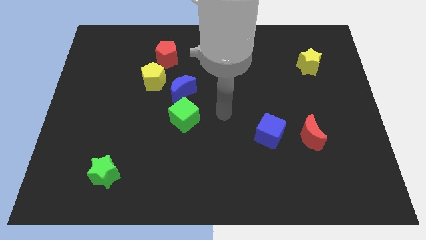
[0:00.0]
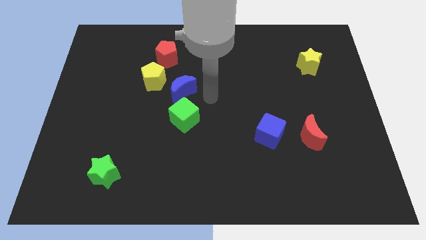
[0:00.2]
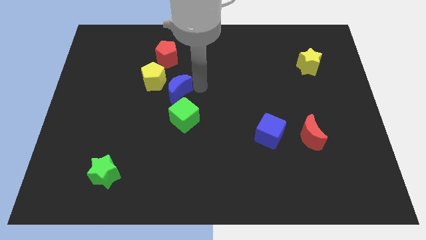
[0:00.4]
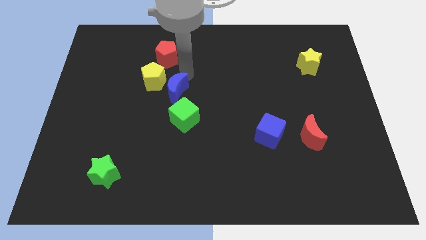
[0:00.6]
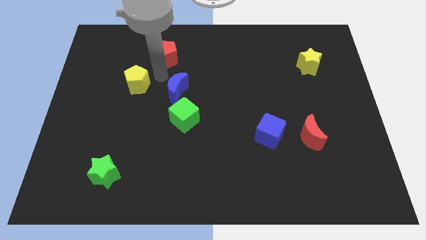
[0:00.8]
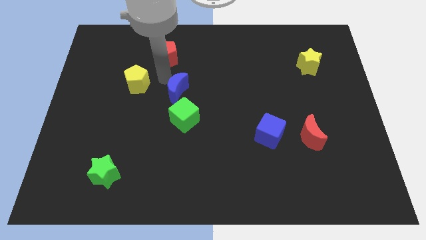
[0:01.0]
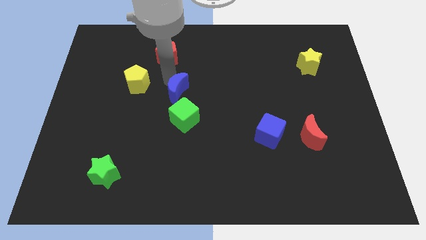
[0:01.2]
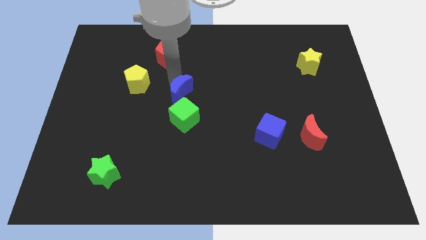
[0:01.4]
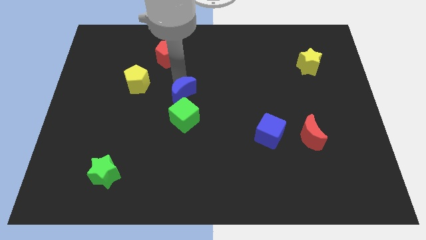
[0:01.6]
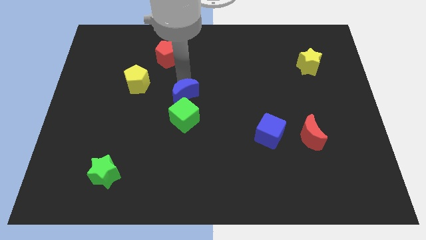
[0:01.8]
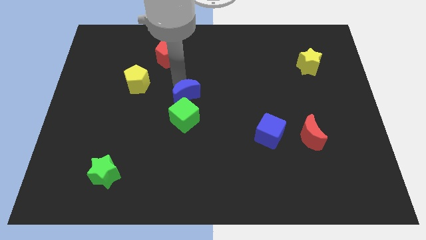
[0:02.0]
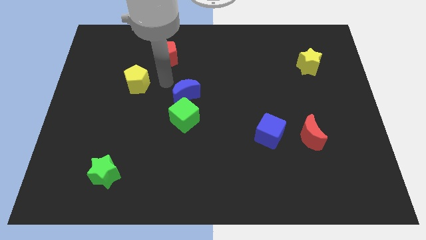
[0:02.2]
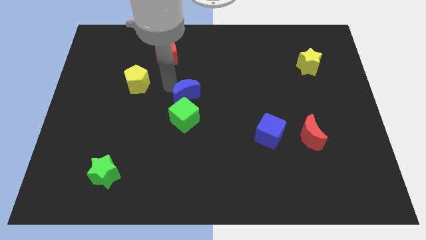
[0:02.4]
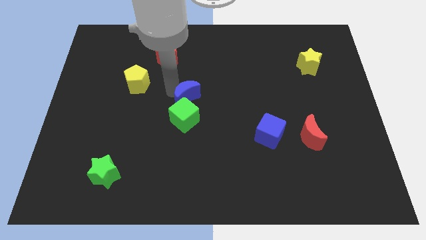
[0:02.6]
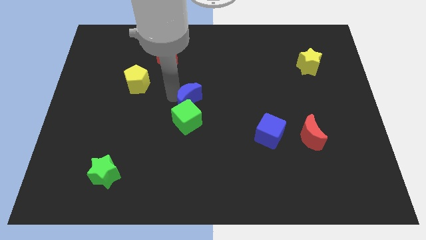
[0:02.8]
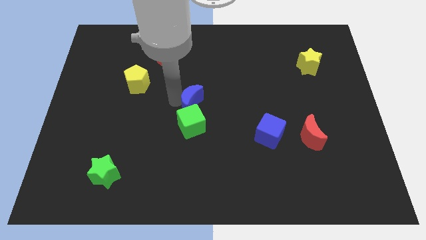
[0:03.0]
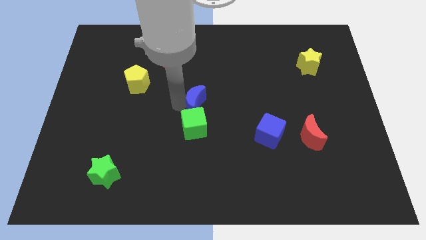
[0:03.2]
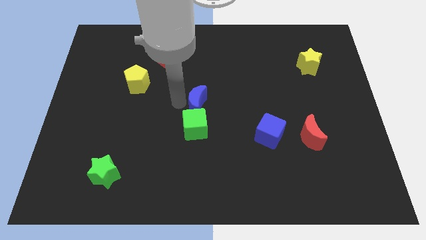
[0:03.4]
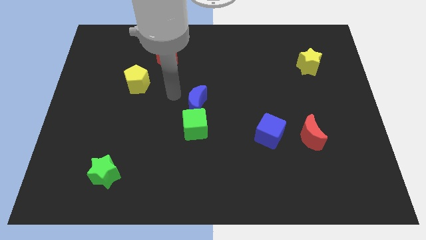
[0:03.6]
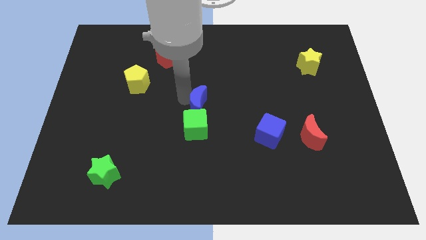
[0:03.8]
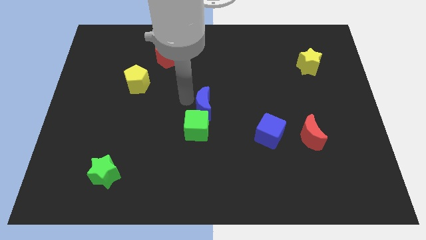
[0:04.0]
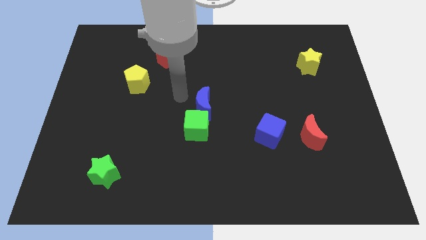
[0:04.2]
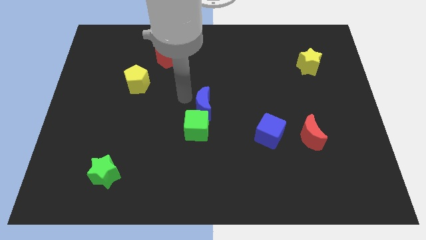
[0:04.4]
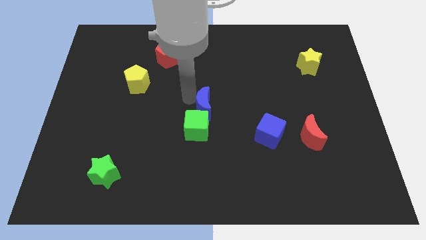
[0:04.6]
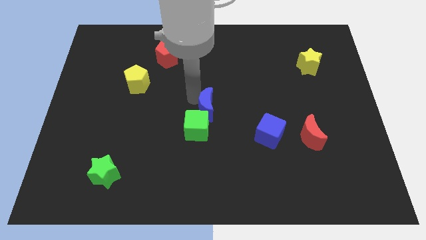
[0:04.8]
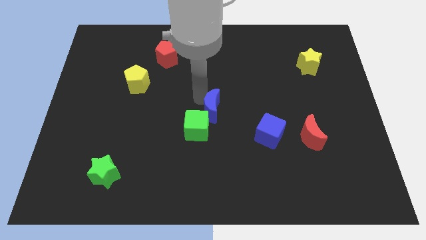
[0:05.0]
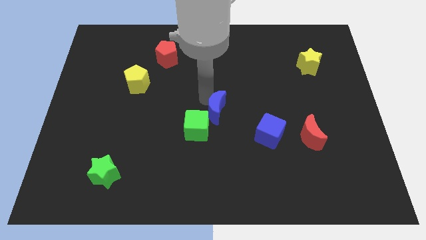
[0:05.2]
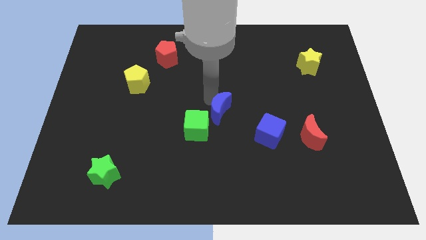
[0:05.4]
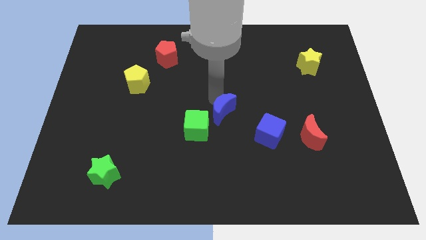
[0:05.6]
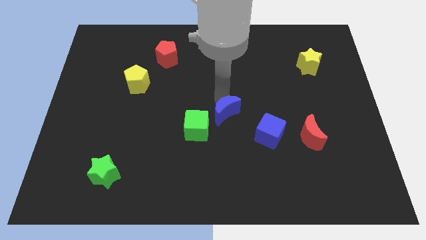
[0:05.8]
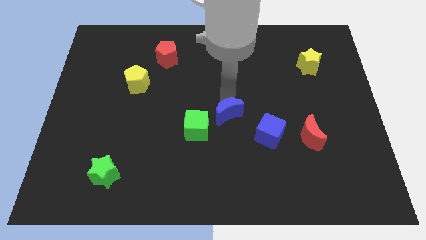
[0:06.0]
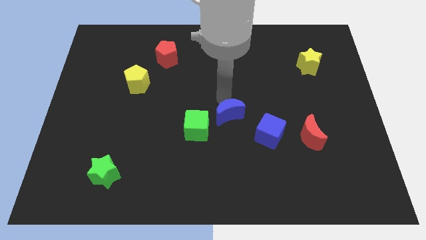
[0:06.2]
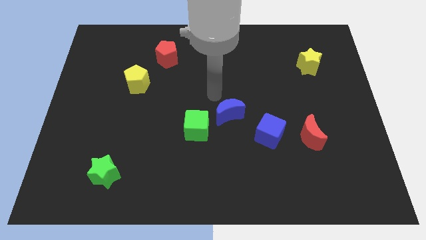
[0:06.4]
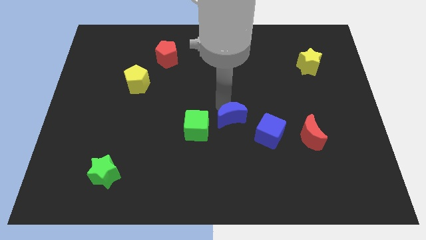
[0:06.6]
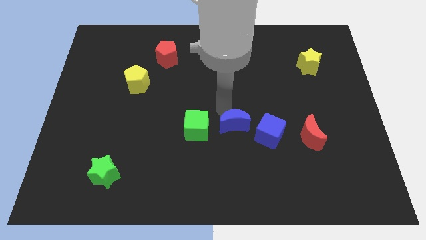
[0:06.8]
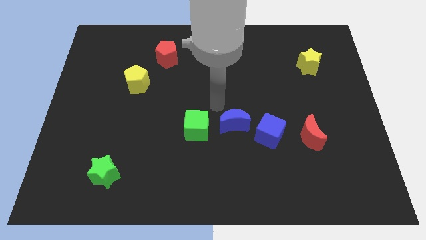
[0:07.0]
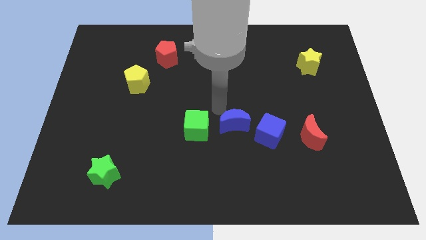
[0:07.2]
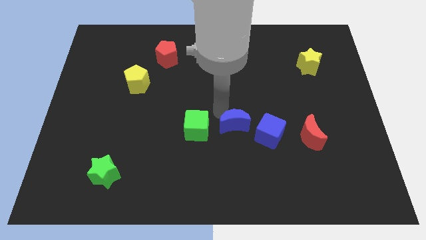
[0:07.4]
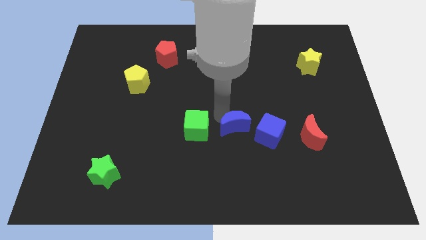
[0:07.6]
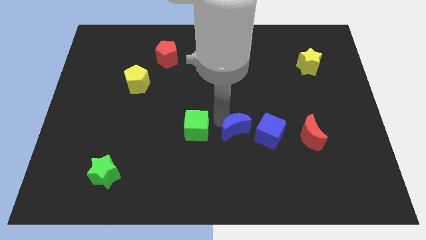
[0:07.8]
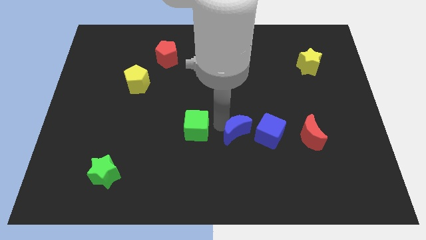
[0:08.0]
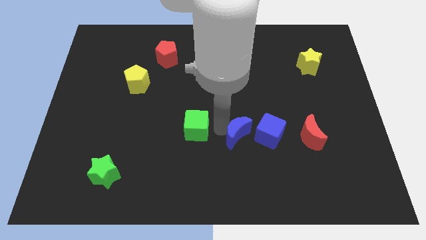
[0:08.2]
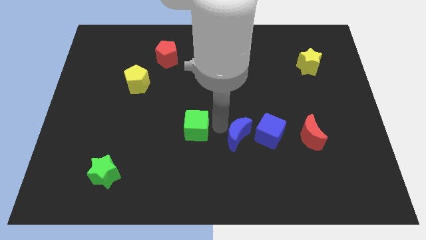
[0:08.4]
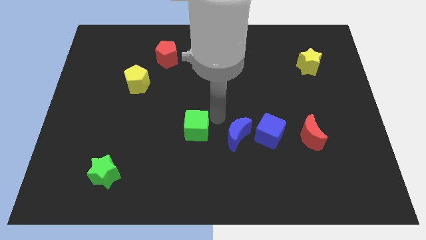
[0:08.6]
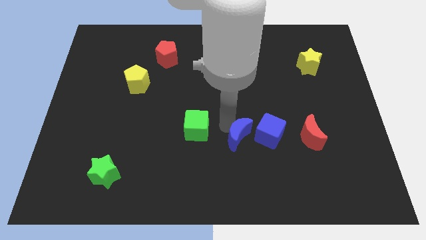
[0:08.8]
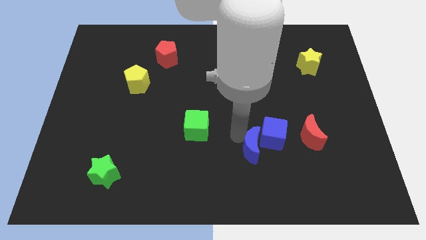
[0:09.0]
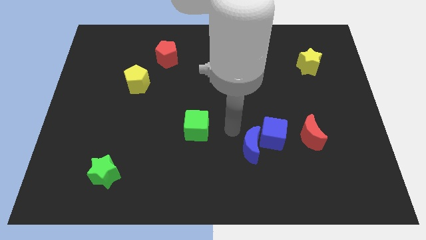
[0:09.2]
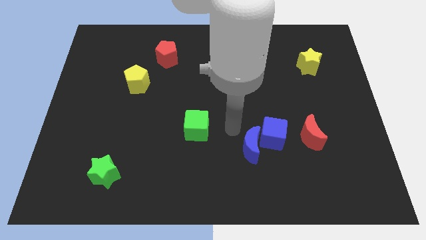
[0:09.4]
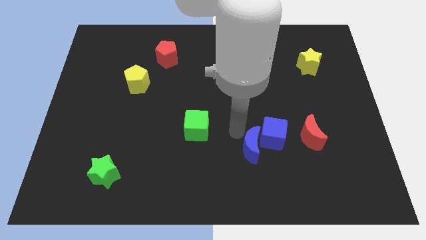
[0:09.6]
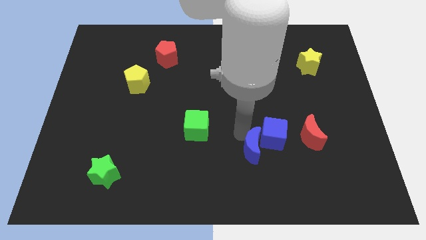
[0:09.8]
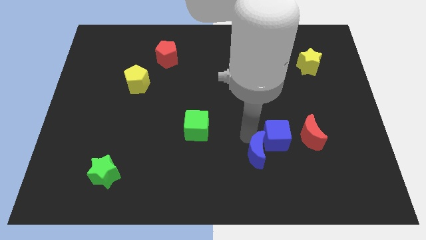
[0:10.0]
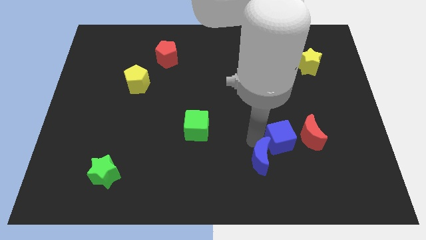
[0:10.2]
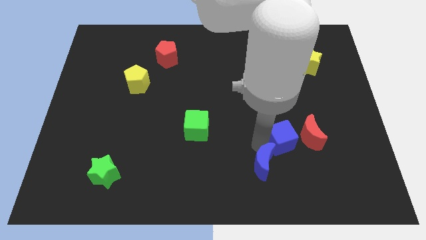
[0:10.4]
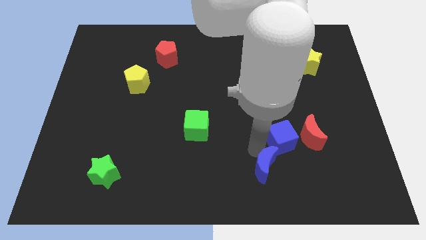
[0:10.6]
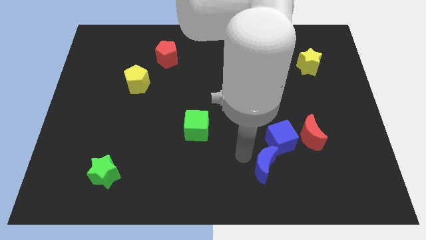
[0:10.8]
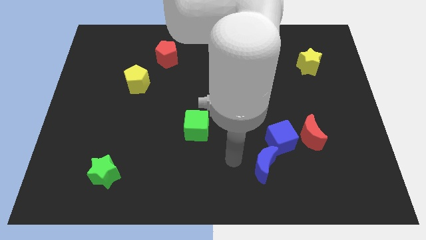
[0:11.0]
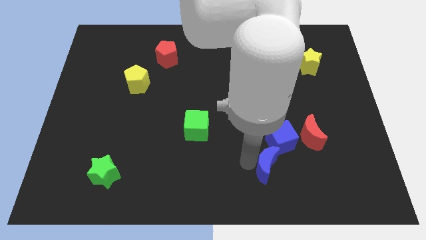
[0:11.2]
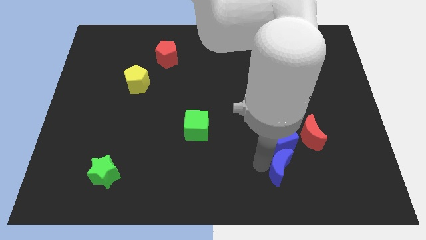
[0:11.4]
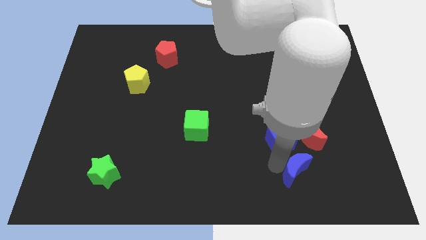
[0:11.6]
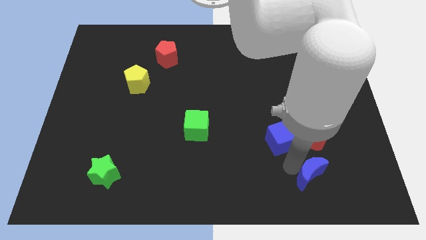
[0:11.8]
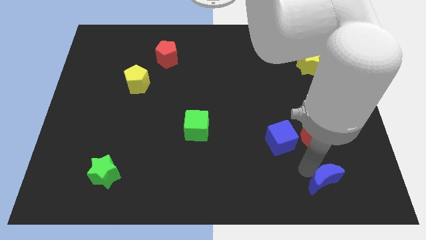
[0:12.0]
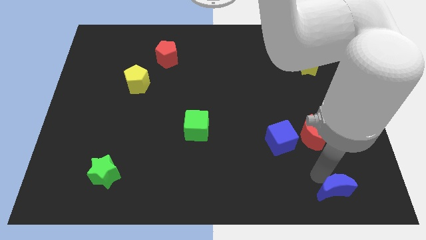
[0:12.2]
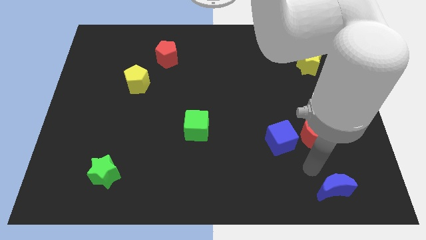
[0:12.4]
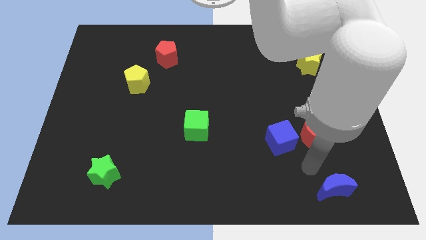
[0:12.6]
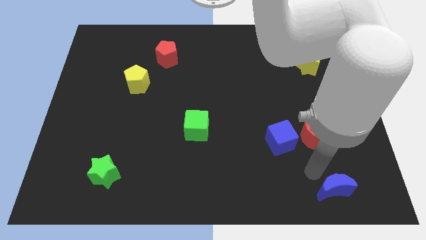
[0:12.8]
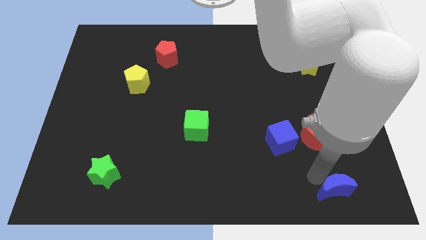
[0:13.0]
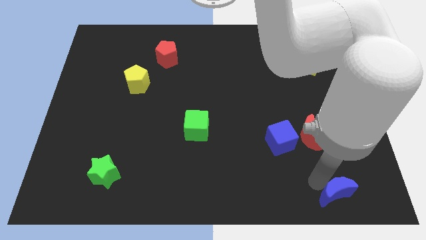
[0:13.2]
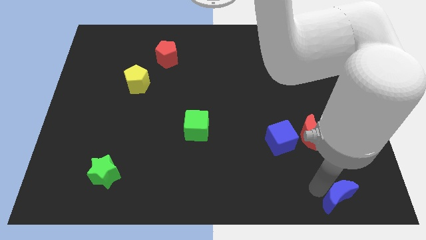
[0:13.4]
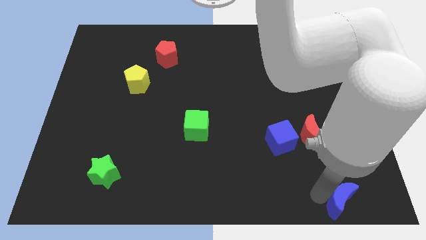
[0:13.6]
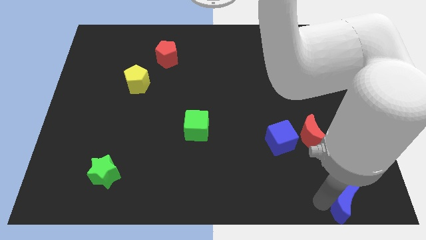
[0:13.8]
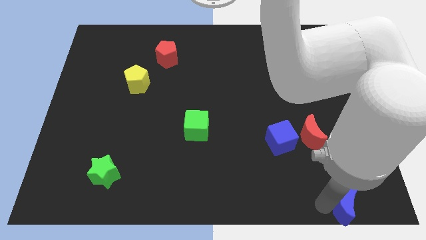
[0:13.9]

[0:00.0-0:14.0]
slide the blue moon to the bottom right corner
